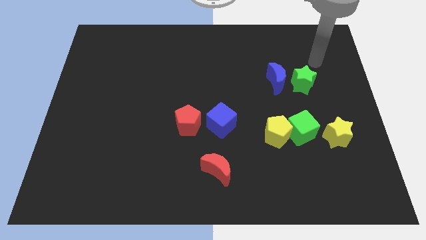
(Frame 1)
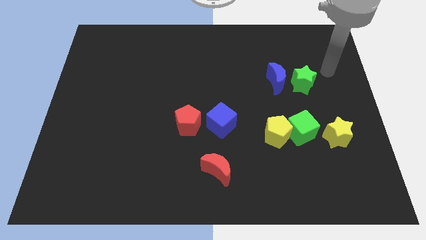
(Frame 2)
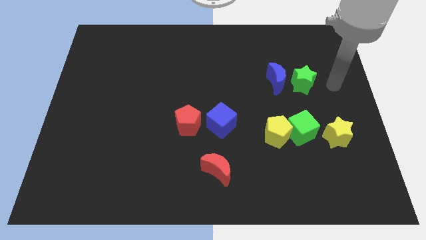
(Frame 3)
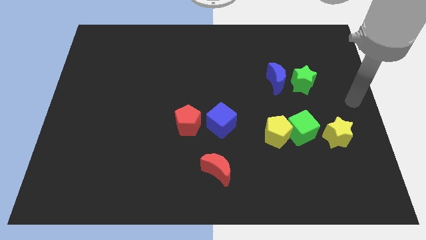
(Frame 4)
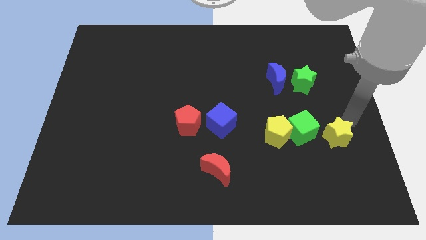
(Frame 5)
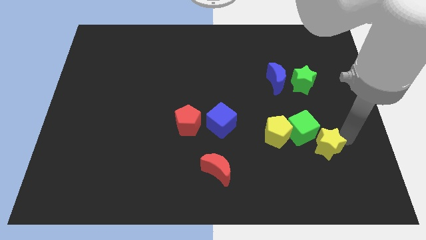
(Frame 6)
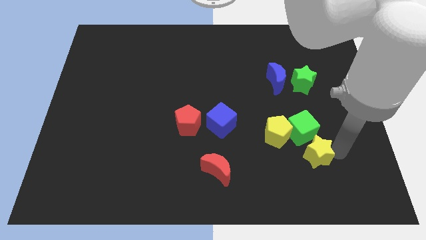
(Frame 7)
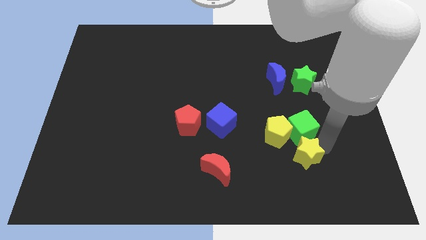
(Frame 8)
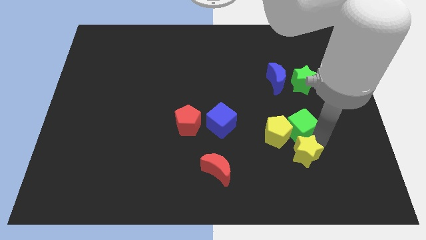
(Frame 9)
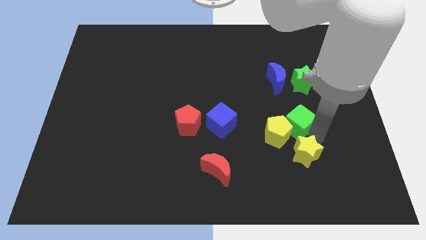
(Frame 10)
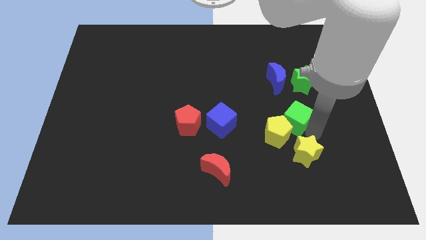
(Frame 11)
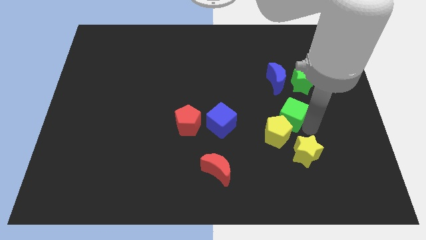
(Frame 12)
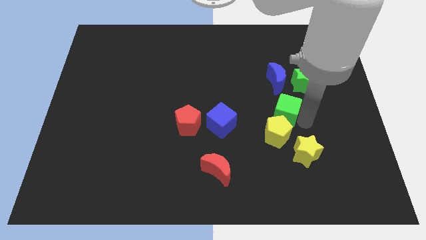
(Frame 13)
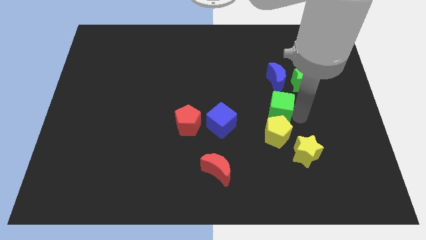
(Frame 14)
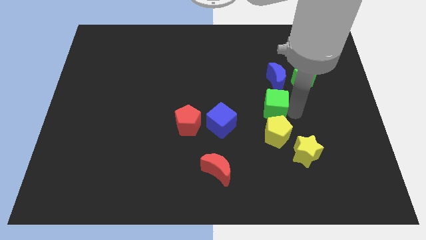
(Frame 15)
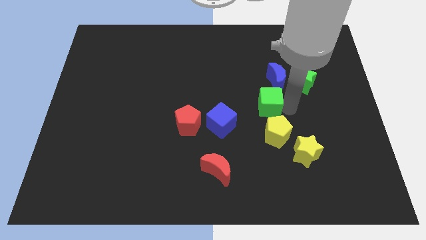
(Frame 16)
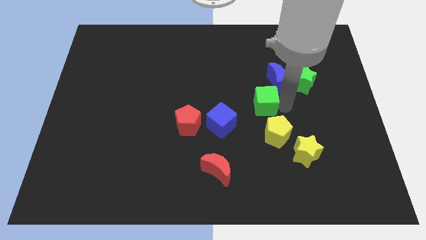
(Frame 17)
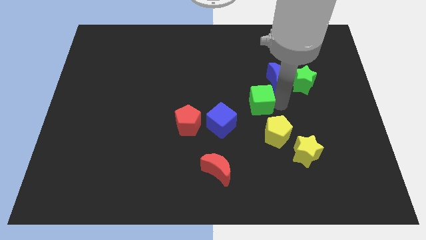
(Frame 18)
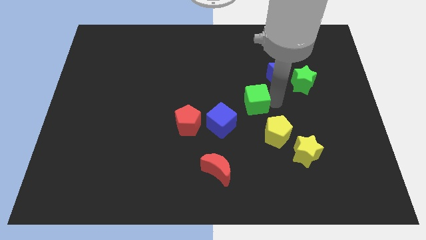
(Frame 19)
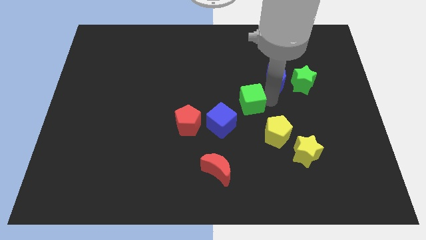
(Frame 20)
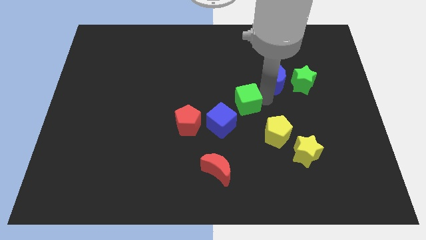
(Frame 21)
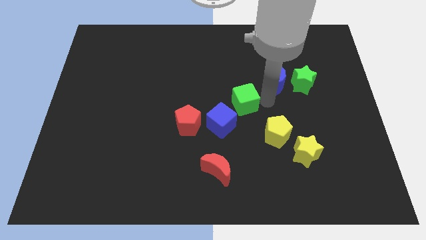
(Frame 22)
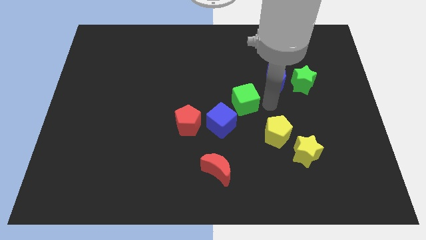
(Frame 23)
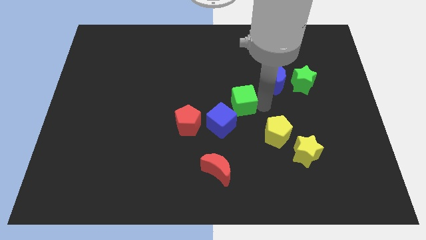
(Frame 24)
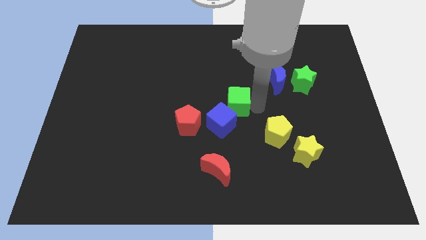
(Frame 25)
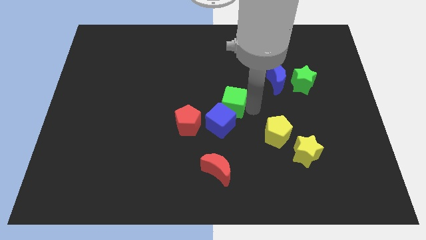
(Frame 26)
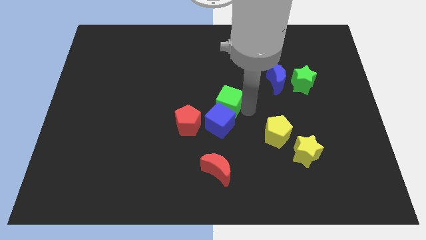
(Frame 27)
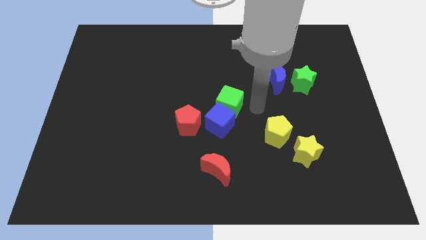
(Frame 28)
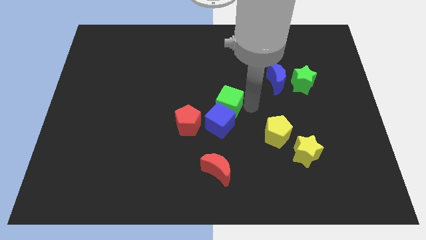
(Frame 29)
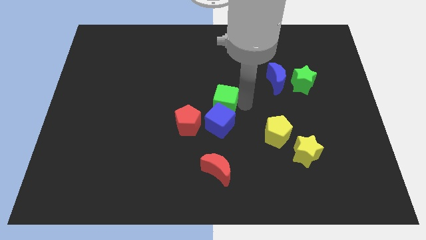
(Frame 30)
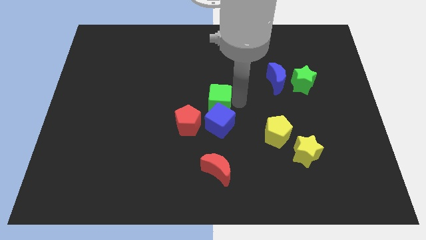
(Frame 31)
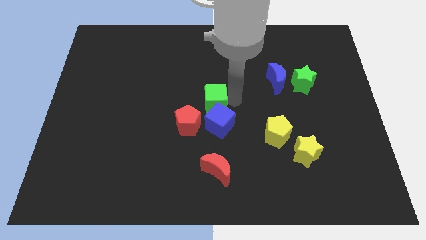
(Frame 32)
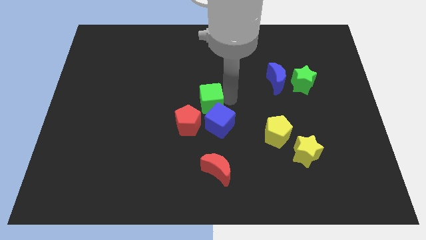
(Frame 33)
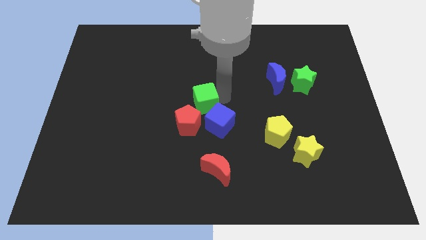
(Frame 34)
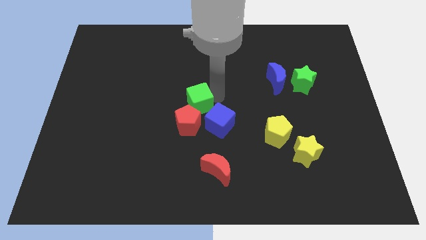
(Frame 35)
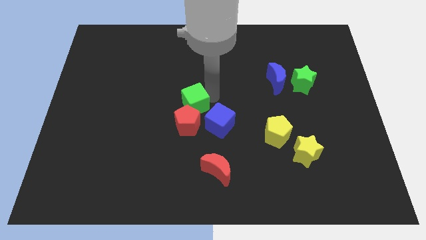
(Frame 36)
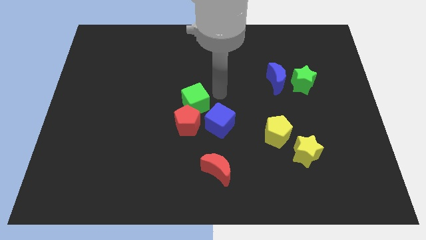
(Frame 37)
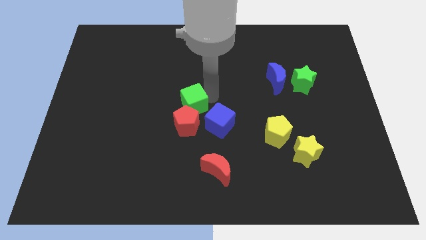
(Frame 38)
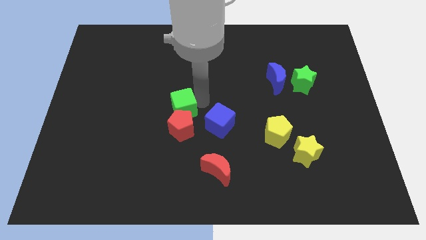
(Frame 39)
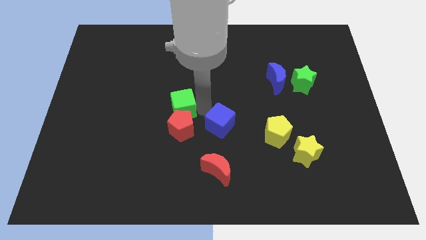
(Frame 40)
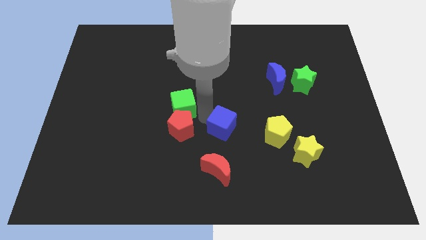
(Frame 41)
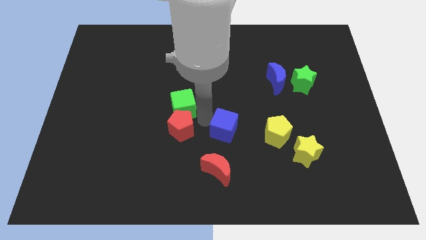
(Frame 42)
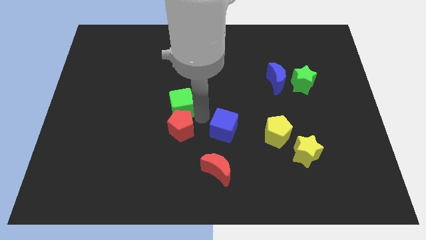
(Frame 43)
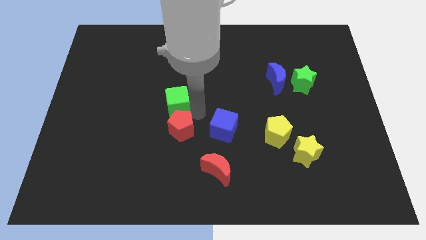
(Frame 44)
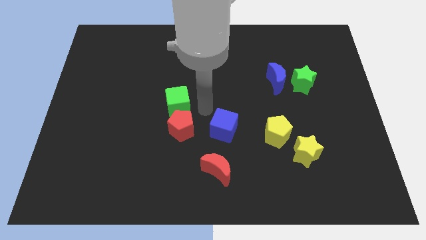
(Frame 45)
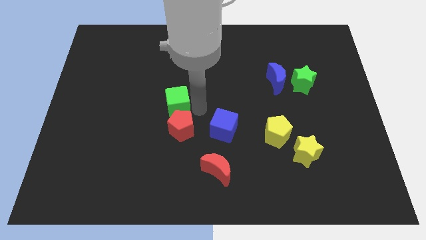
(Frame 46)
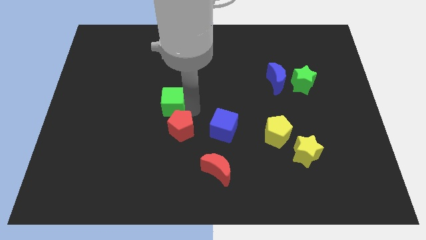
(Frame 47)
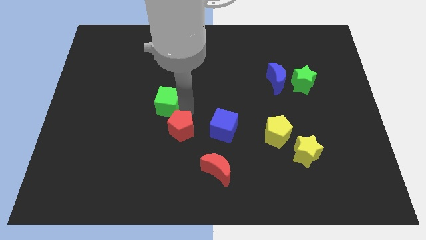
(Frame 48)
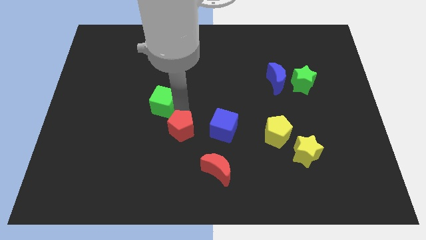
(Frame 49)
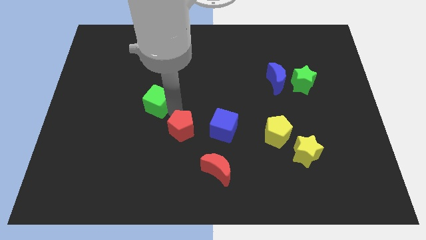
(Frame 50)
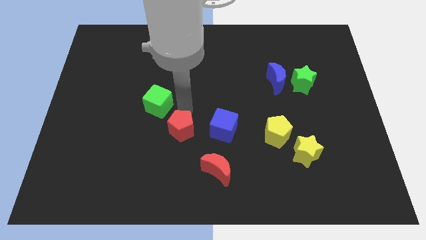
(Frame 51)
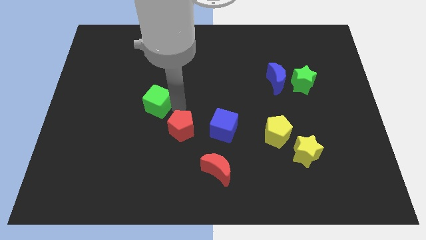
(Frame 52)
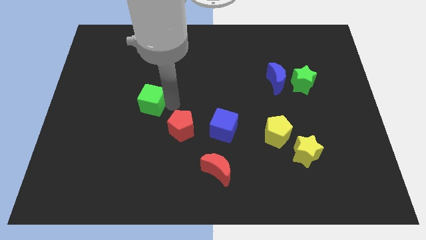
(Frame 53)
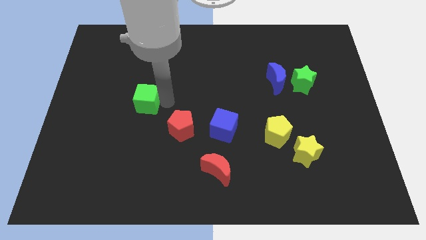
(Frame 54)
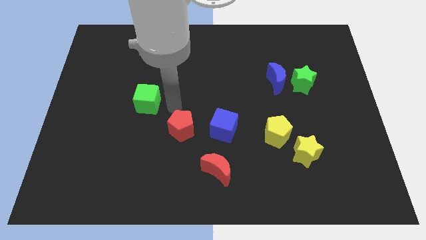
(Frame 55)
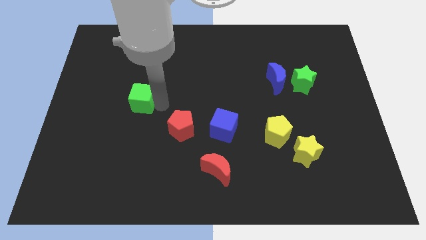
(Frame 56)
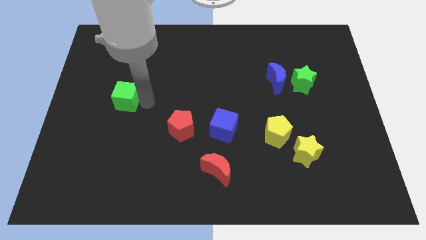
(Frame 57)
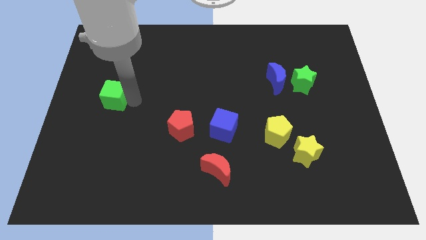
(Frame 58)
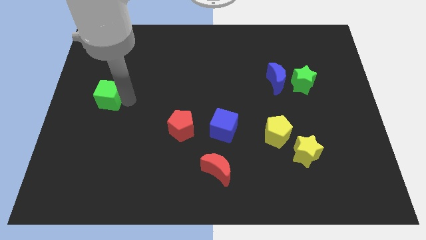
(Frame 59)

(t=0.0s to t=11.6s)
slide the green cube to the center left
